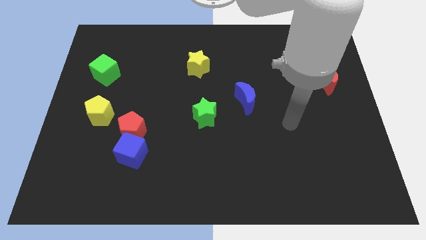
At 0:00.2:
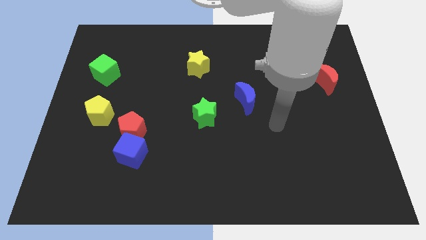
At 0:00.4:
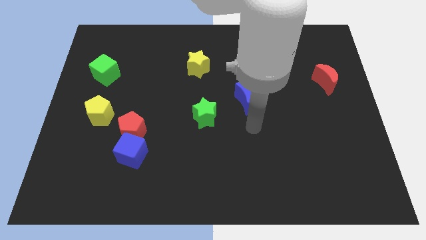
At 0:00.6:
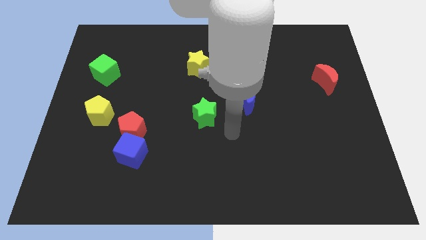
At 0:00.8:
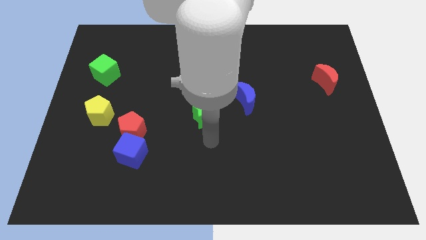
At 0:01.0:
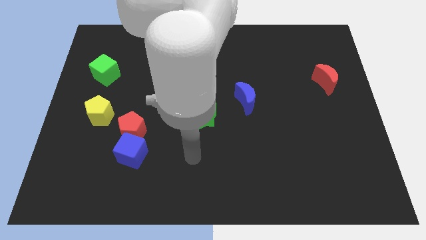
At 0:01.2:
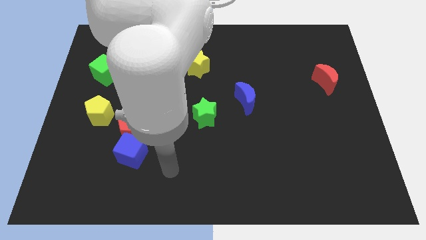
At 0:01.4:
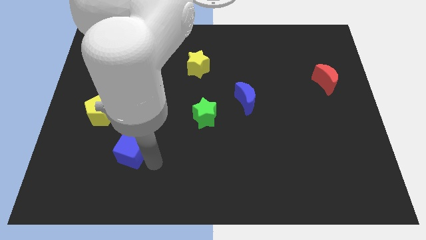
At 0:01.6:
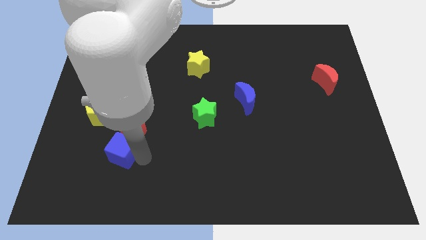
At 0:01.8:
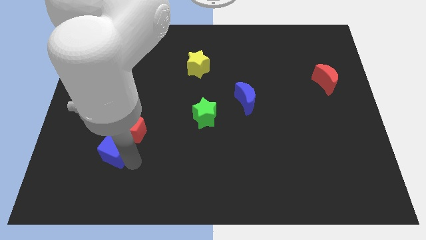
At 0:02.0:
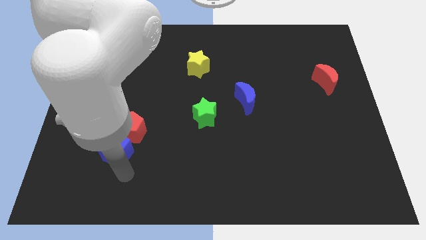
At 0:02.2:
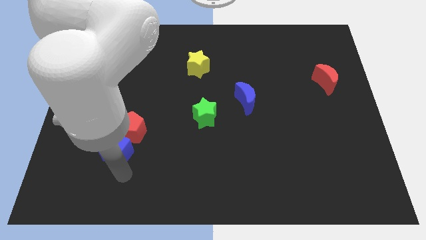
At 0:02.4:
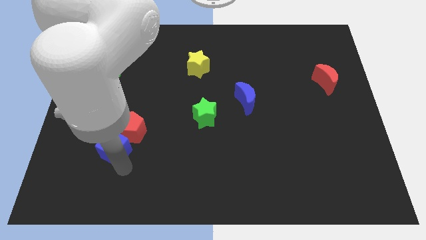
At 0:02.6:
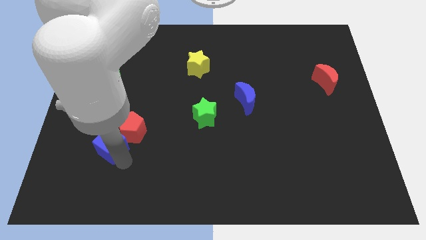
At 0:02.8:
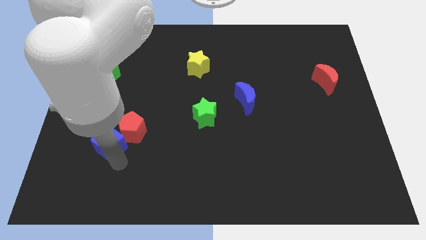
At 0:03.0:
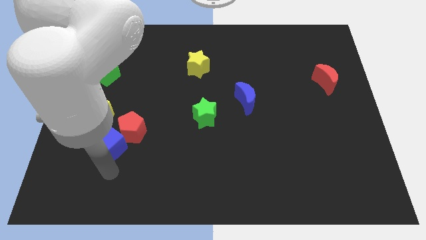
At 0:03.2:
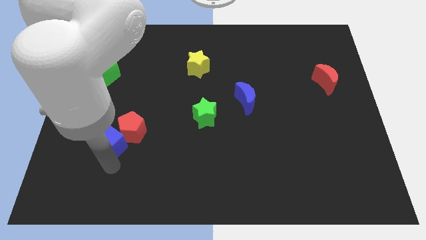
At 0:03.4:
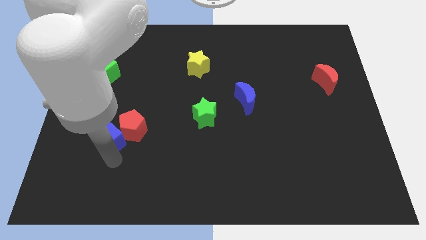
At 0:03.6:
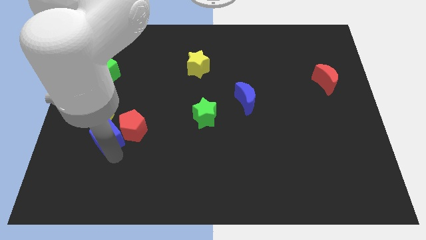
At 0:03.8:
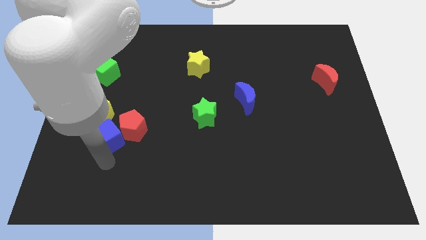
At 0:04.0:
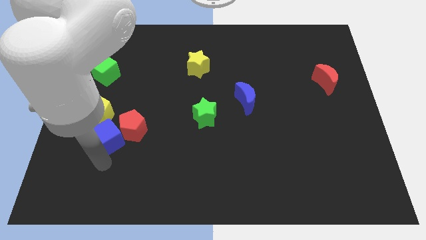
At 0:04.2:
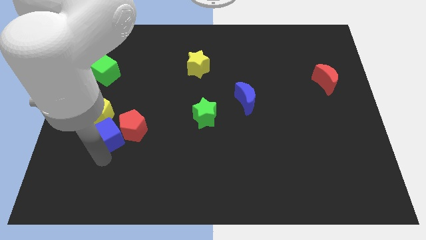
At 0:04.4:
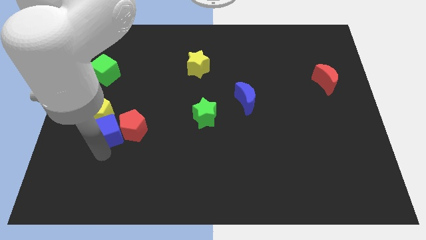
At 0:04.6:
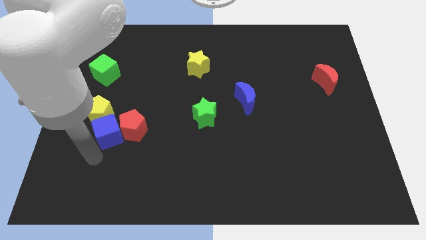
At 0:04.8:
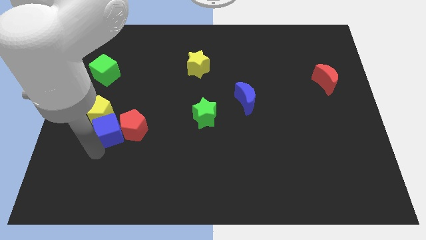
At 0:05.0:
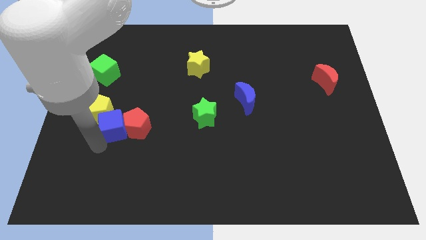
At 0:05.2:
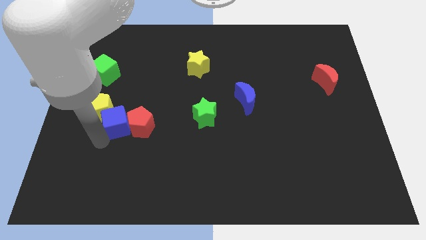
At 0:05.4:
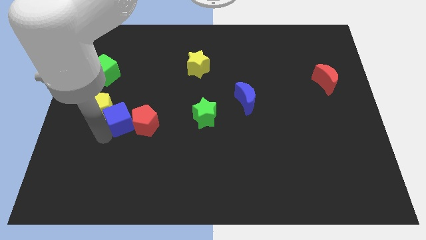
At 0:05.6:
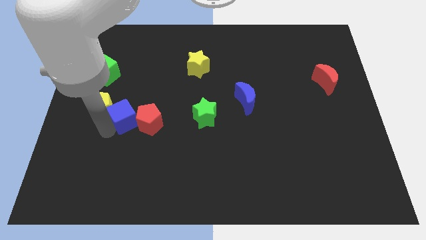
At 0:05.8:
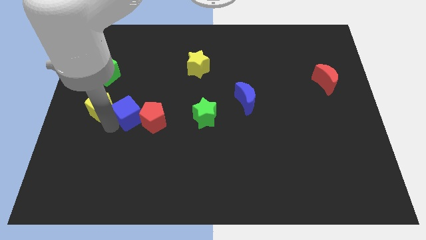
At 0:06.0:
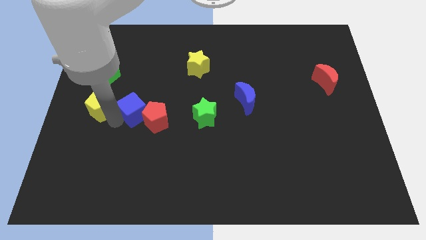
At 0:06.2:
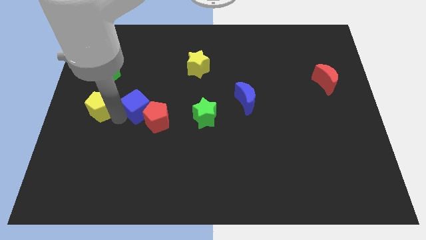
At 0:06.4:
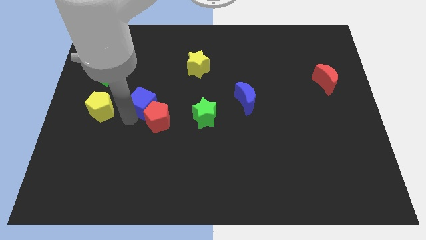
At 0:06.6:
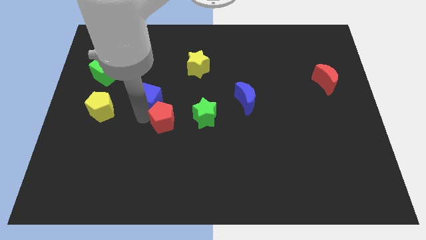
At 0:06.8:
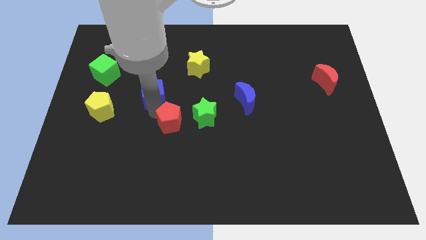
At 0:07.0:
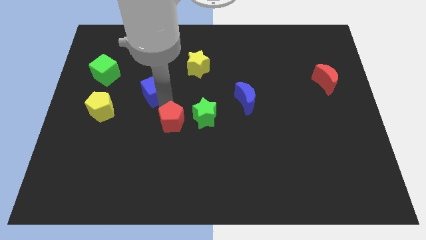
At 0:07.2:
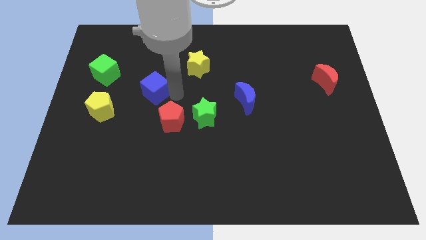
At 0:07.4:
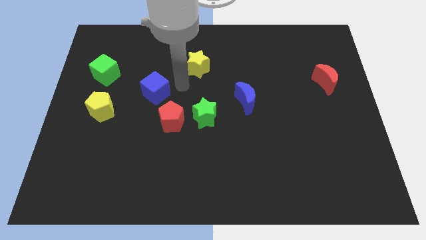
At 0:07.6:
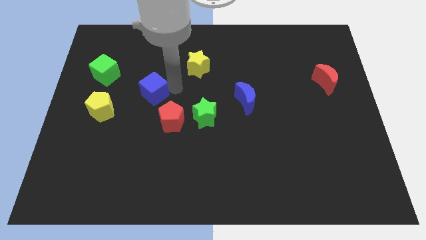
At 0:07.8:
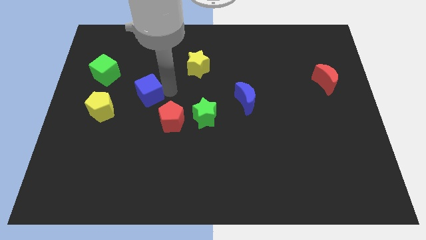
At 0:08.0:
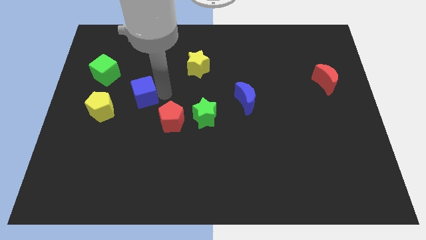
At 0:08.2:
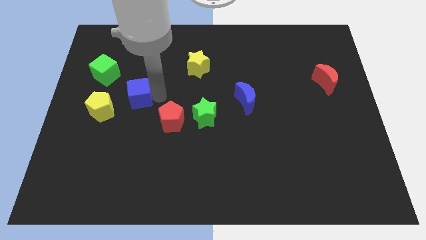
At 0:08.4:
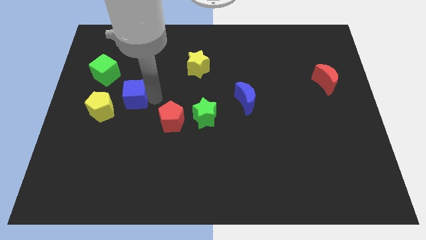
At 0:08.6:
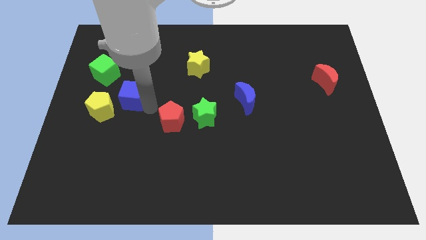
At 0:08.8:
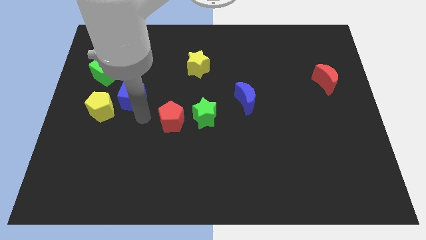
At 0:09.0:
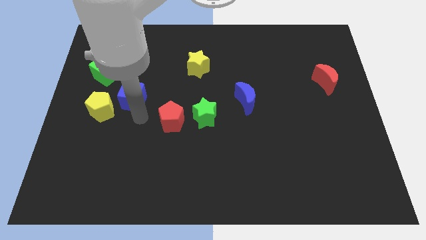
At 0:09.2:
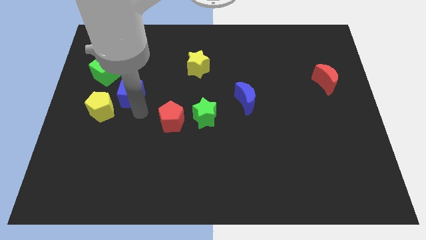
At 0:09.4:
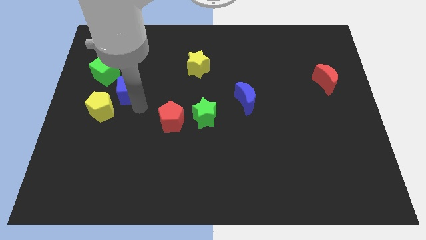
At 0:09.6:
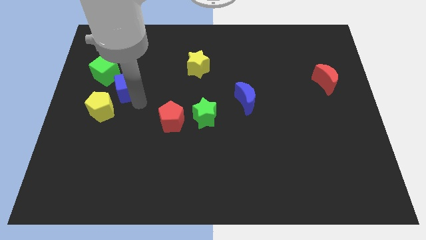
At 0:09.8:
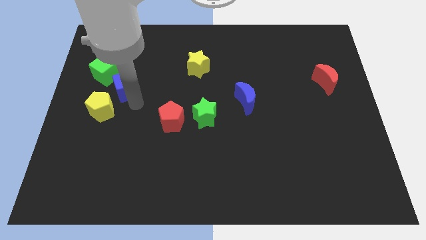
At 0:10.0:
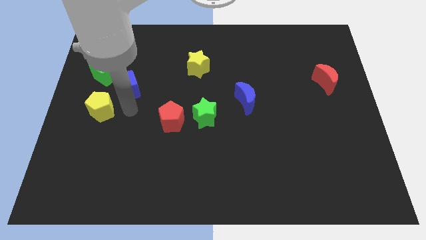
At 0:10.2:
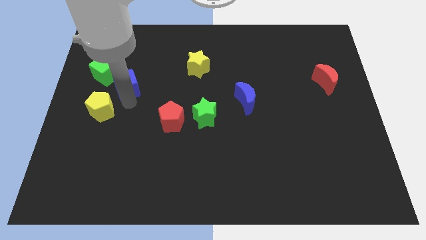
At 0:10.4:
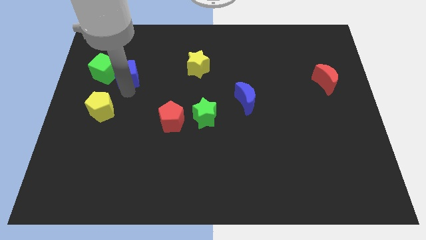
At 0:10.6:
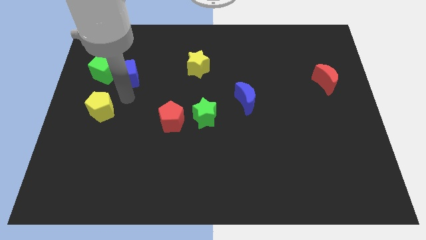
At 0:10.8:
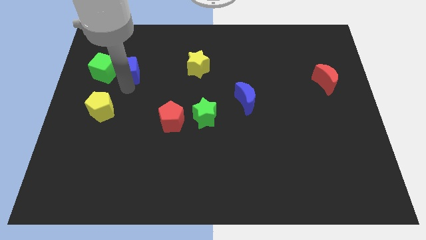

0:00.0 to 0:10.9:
push the blue cube diagonally up and to the right of the green cube

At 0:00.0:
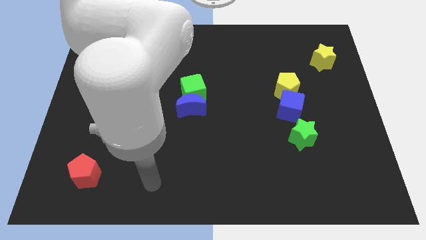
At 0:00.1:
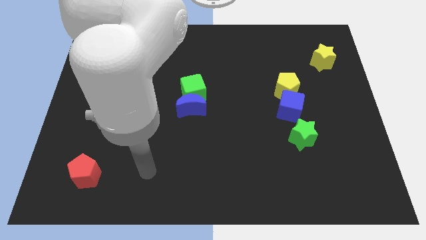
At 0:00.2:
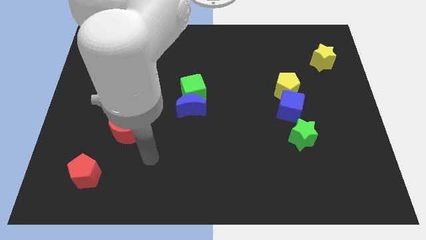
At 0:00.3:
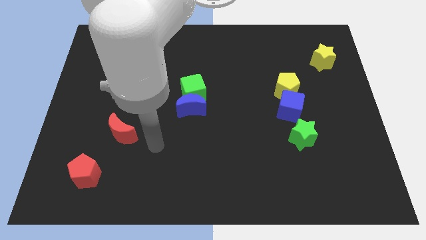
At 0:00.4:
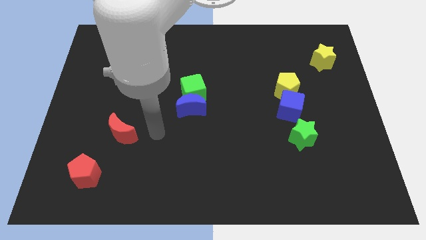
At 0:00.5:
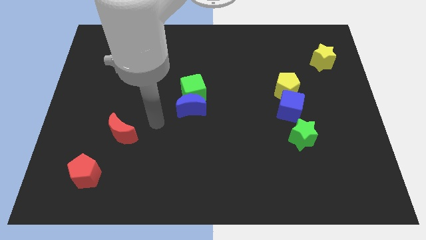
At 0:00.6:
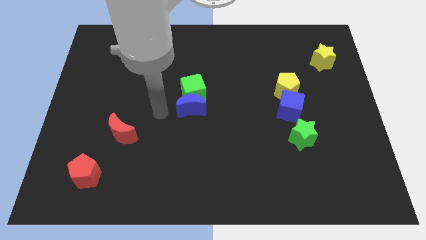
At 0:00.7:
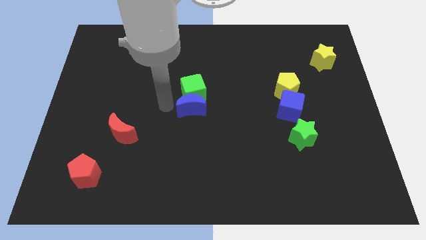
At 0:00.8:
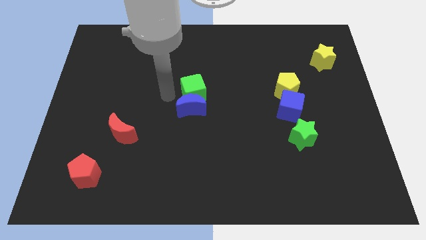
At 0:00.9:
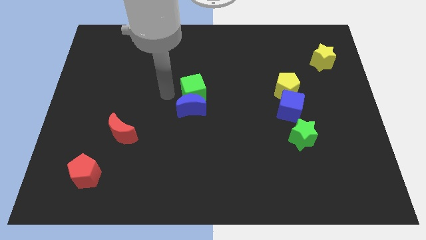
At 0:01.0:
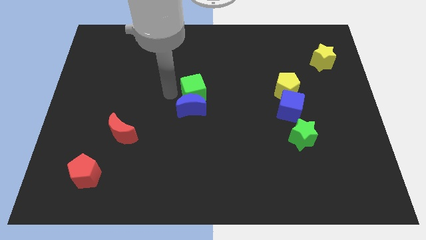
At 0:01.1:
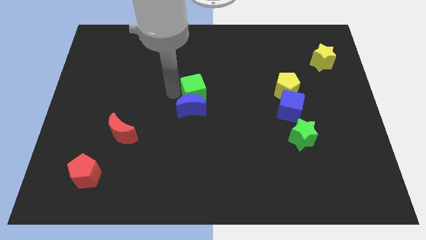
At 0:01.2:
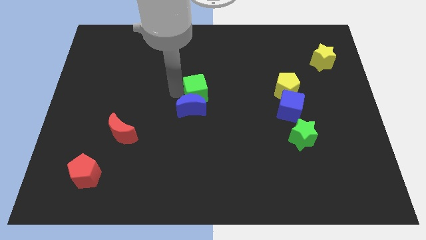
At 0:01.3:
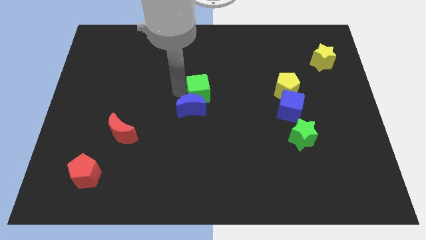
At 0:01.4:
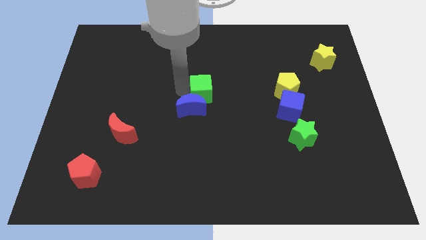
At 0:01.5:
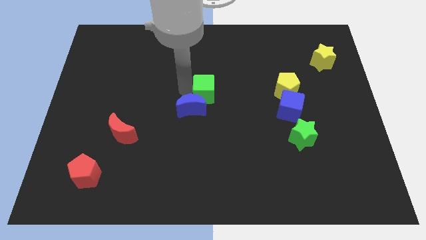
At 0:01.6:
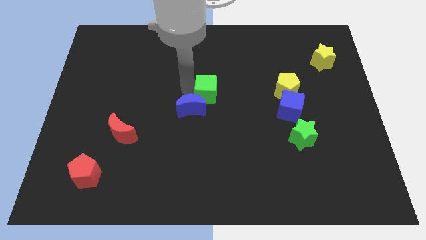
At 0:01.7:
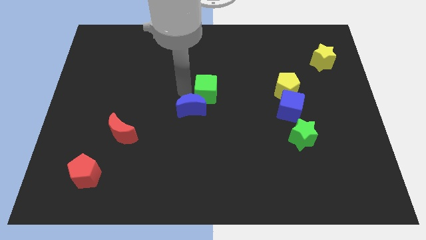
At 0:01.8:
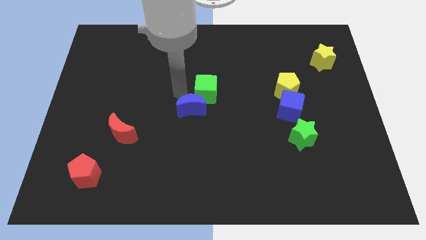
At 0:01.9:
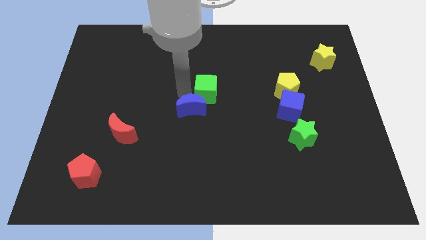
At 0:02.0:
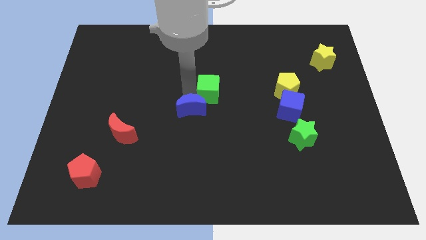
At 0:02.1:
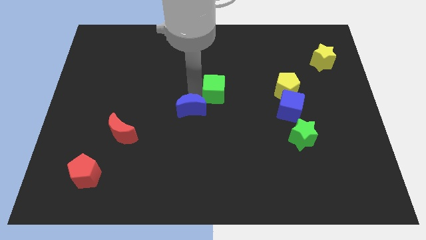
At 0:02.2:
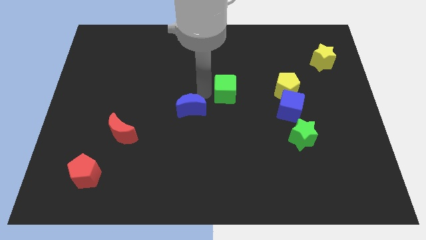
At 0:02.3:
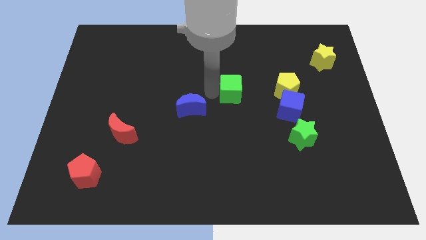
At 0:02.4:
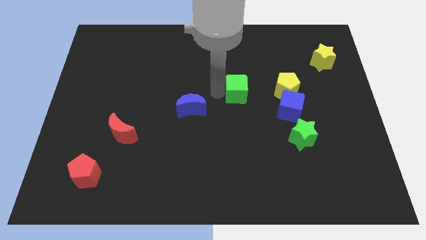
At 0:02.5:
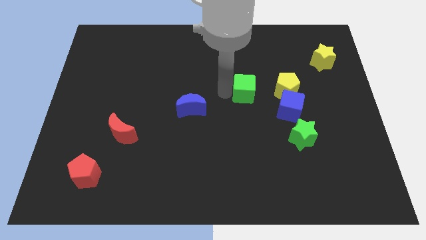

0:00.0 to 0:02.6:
push the green cube to the top left side of the blue cube
